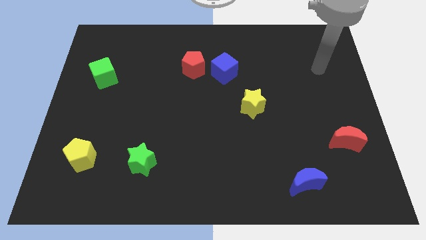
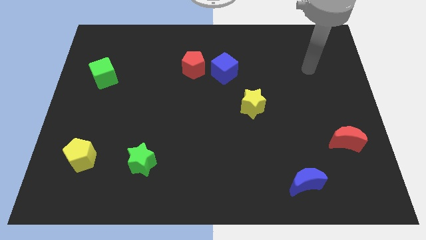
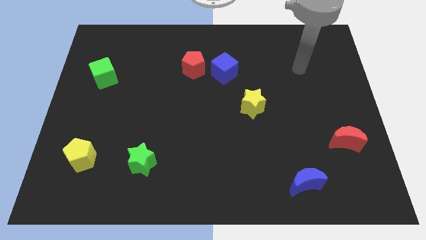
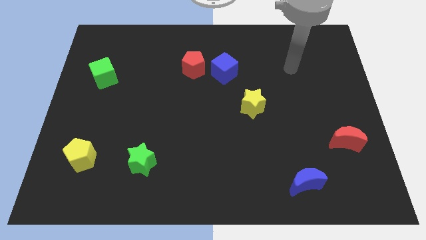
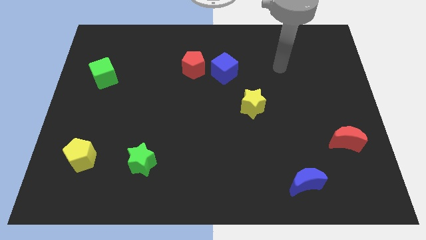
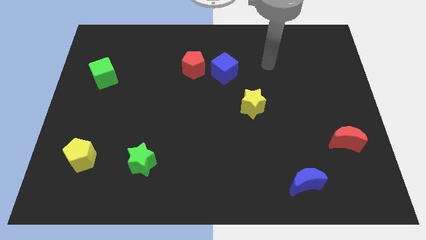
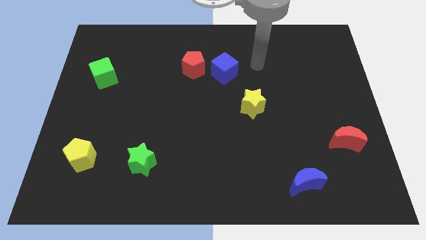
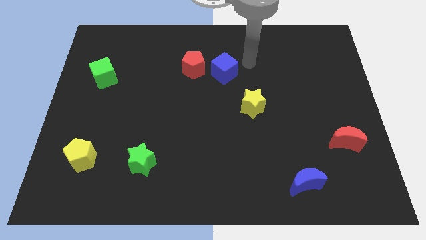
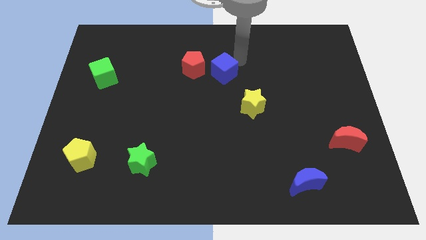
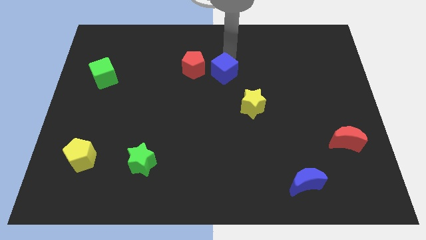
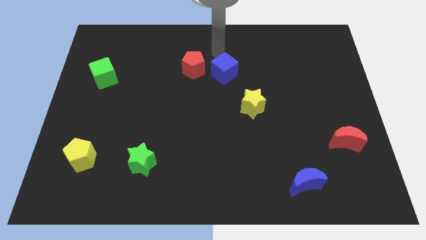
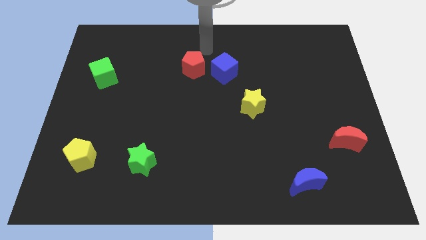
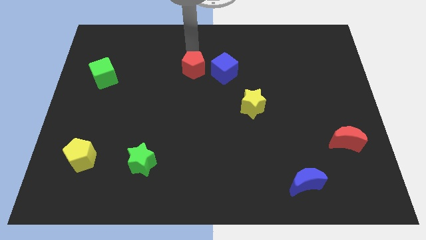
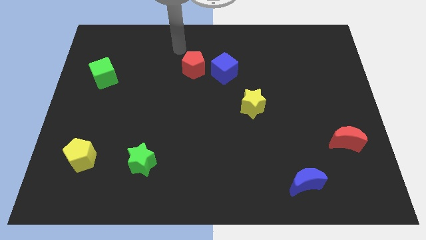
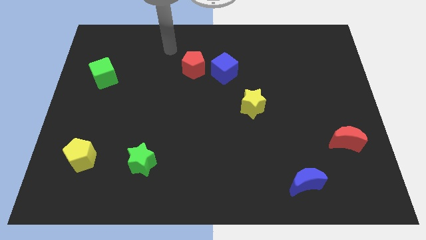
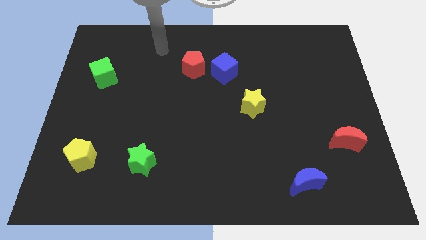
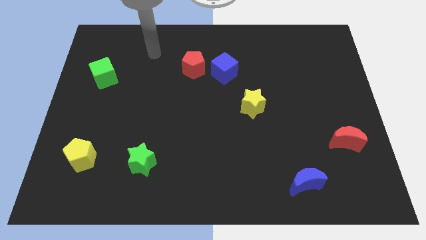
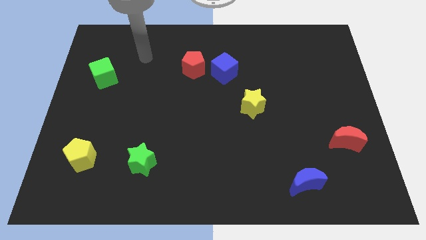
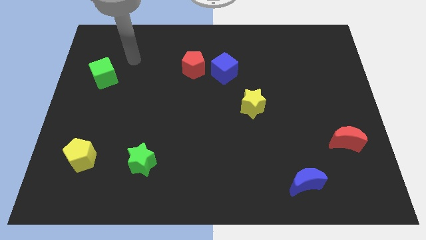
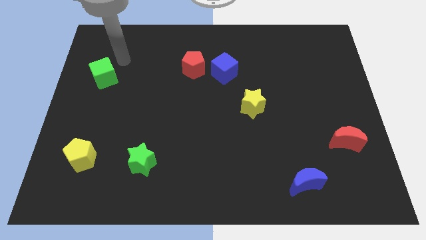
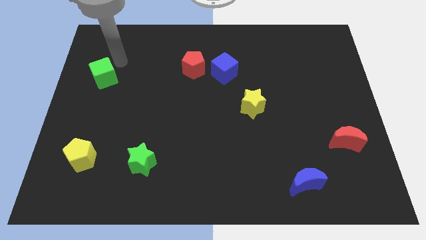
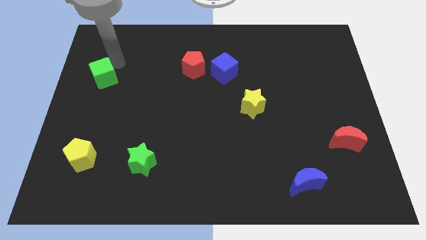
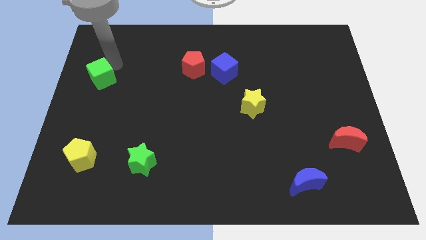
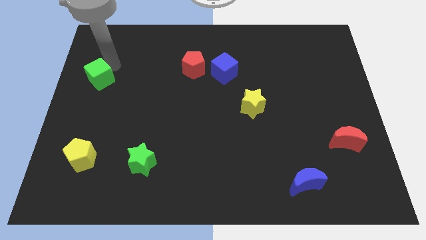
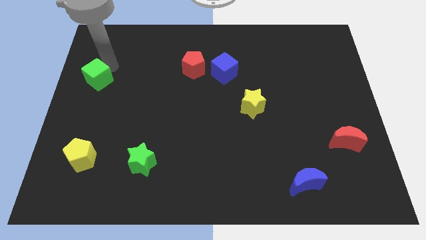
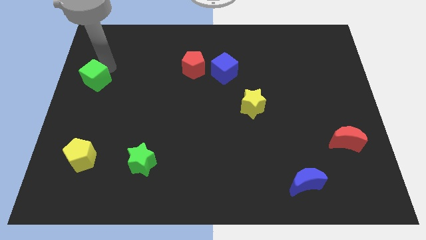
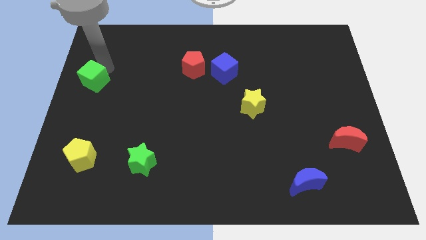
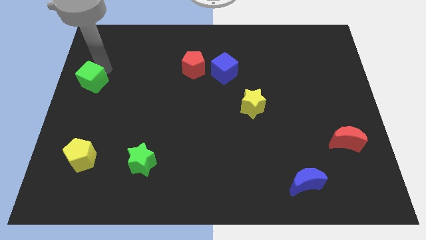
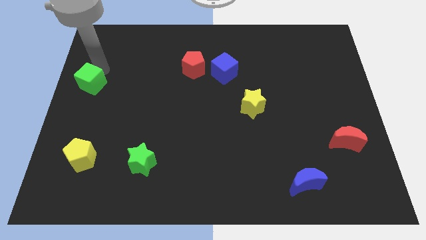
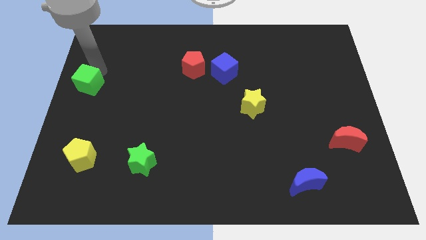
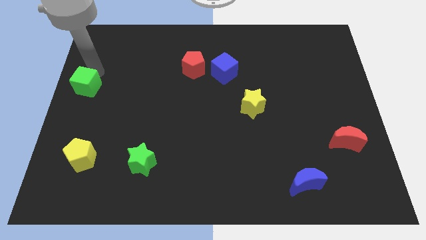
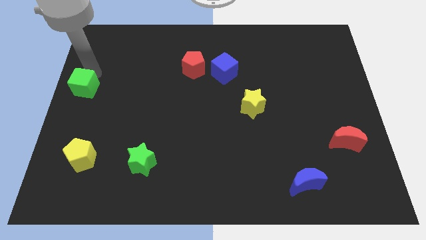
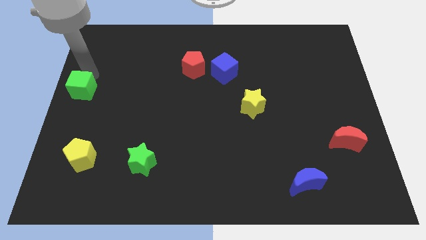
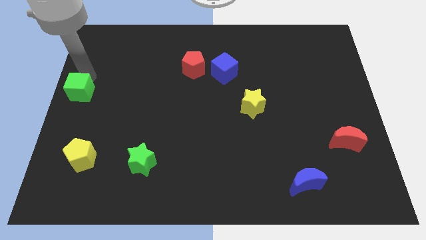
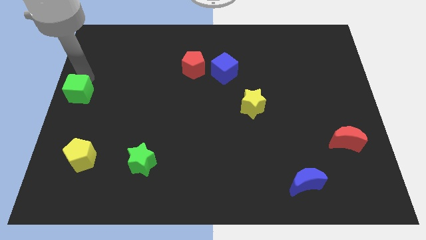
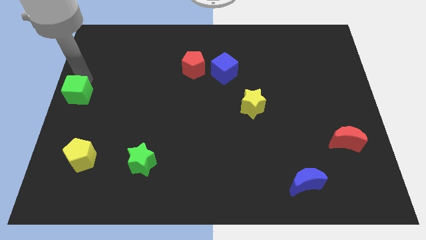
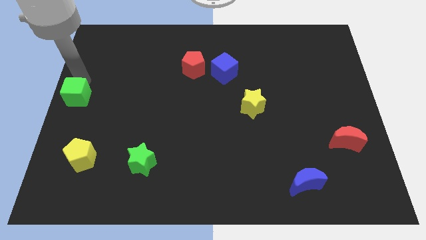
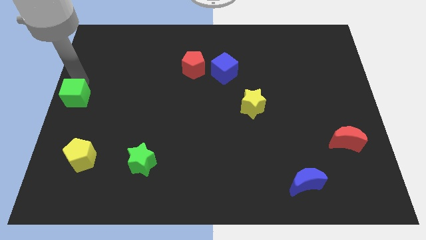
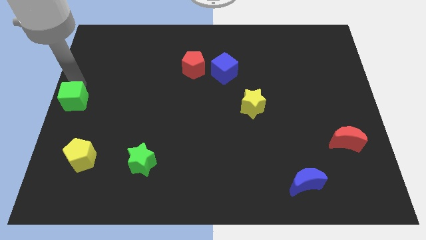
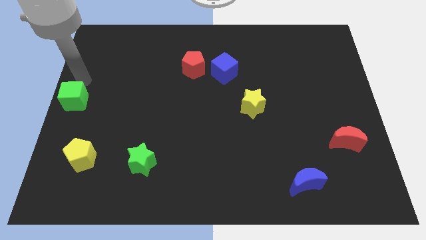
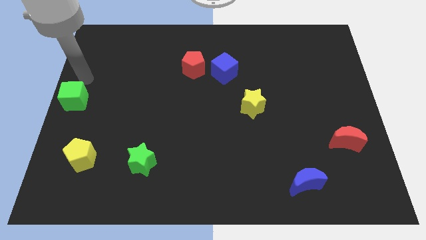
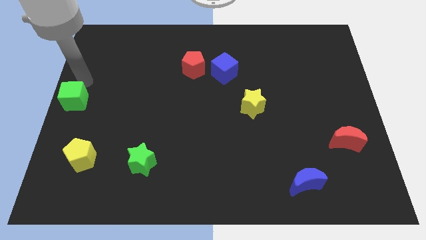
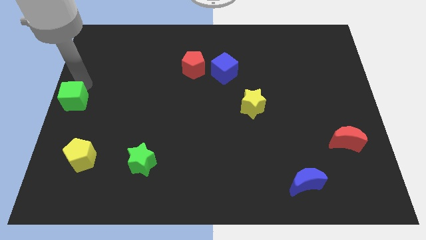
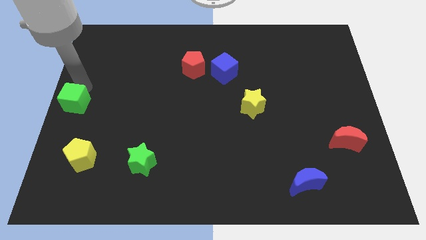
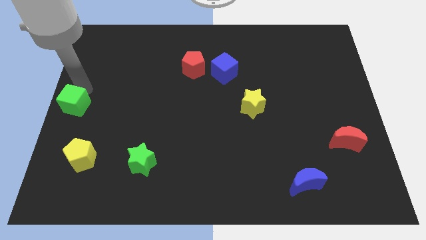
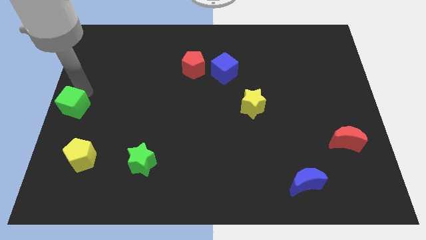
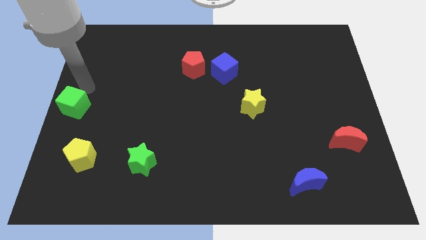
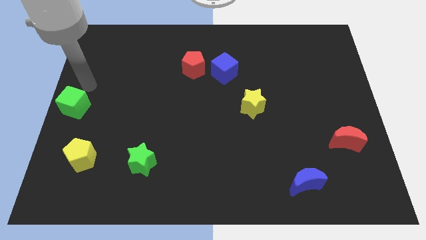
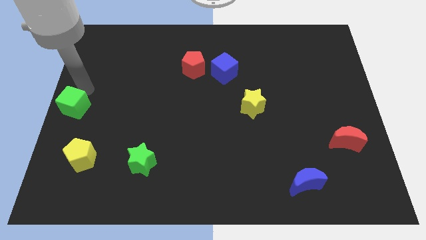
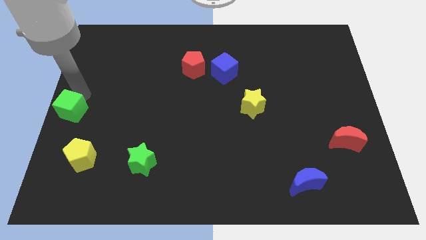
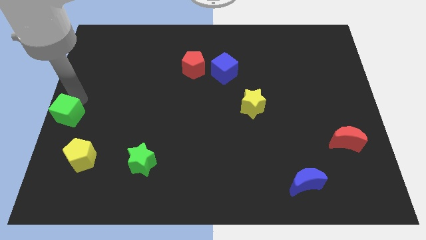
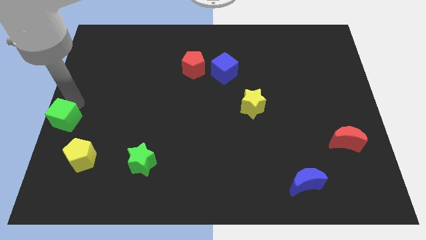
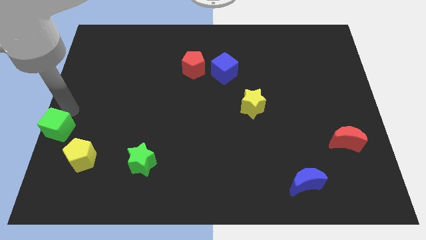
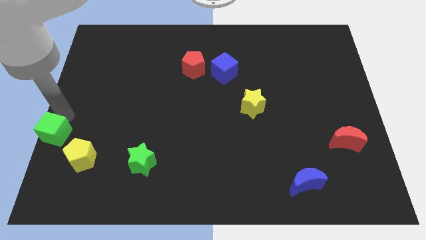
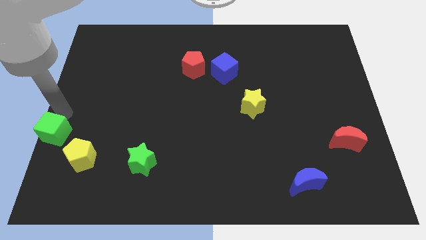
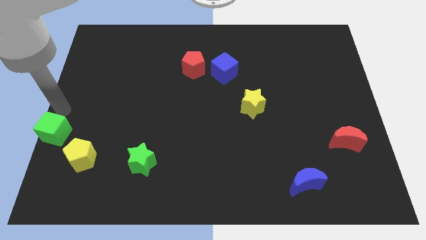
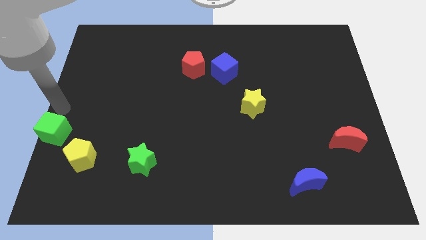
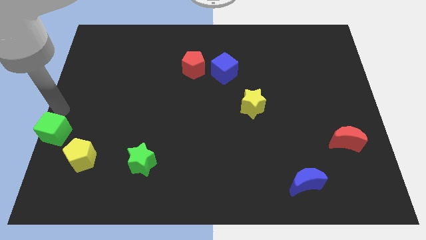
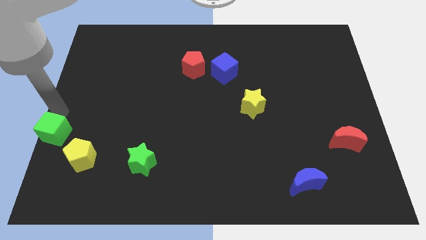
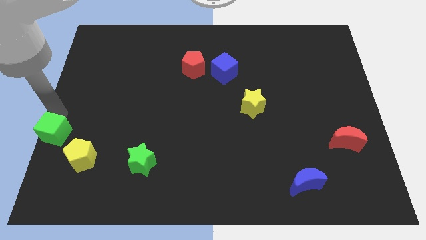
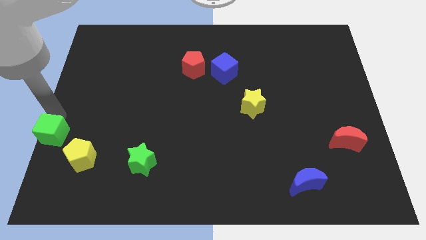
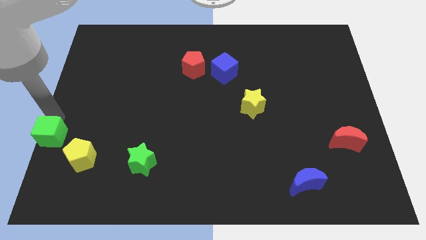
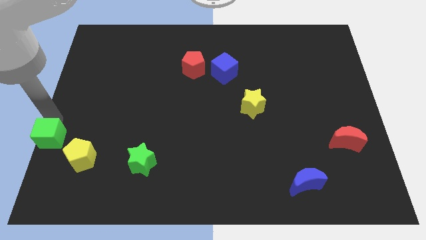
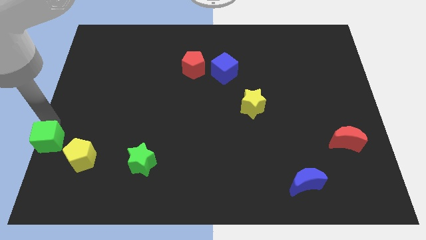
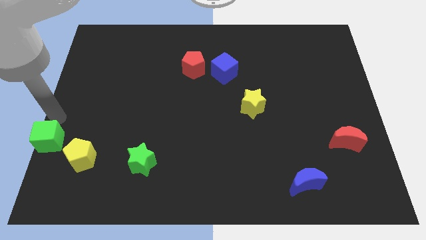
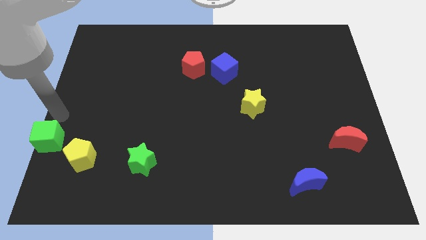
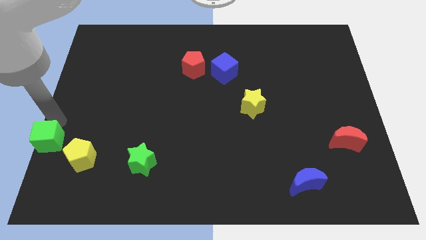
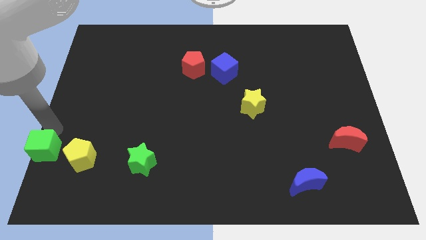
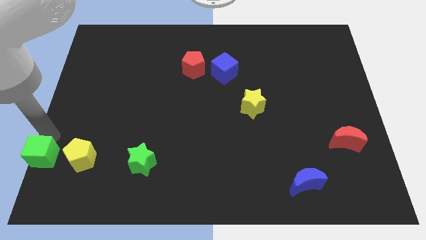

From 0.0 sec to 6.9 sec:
push the green cube to the lower left corner
